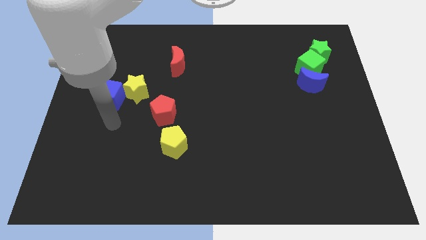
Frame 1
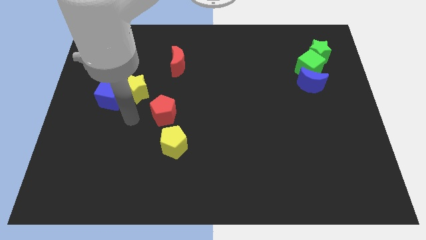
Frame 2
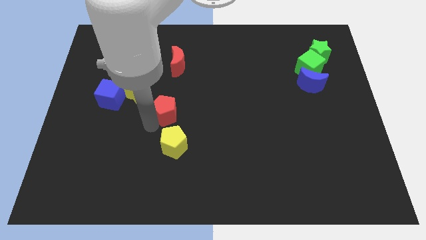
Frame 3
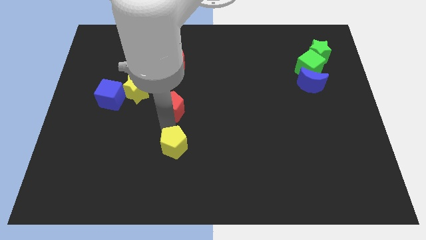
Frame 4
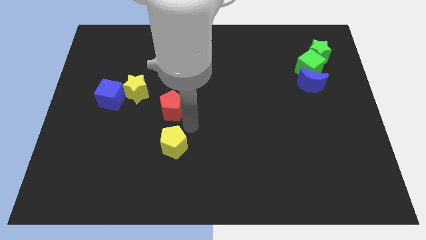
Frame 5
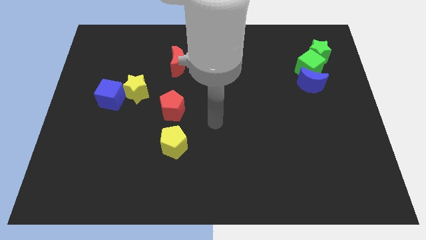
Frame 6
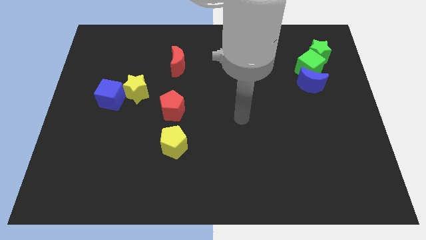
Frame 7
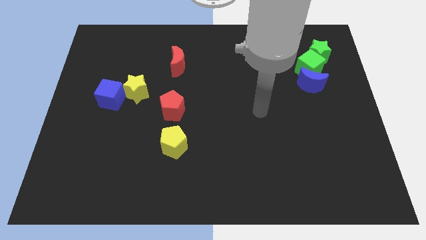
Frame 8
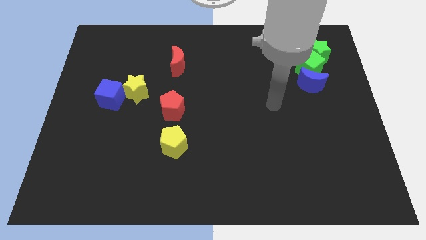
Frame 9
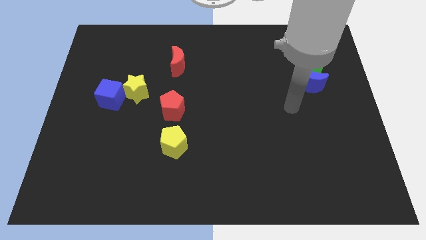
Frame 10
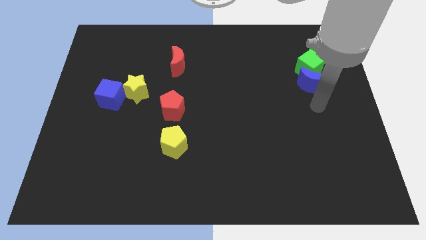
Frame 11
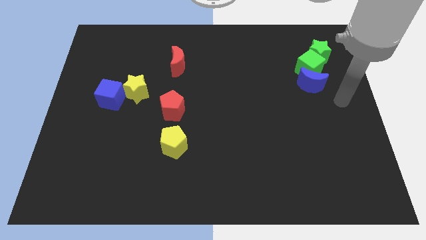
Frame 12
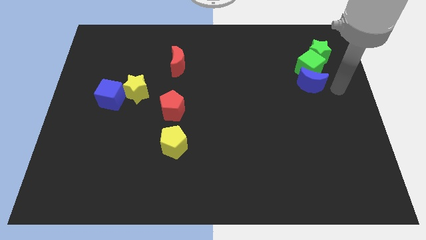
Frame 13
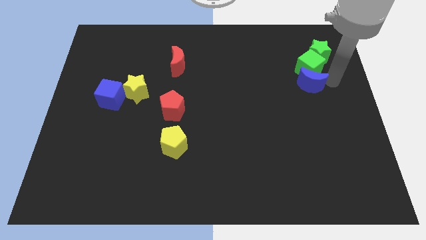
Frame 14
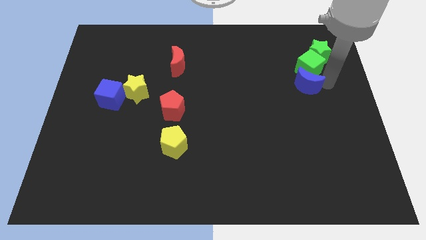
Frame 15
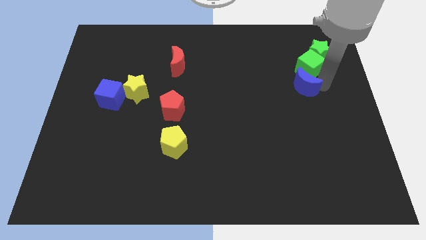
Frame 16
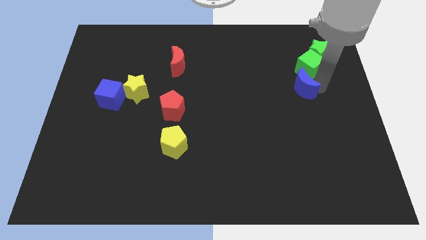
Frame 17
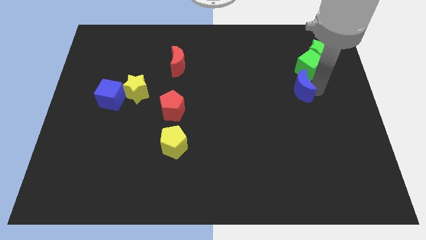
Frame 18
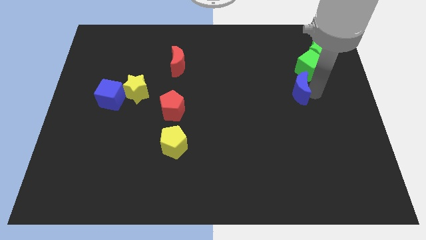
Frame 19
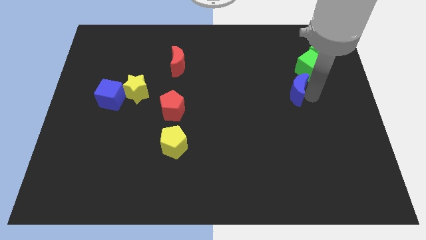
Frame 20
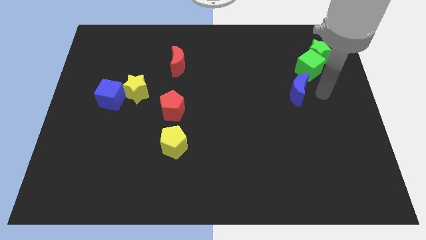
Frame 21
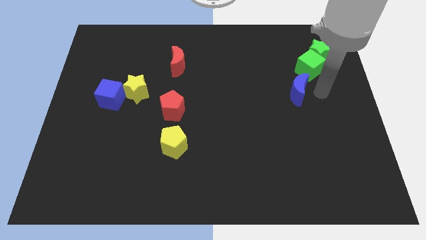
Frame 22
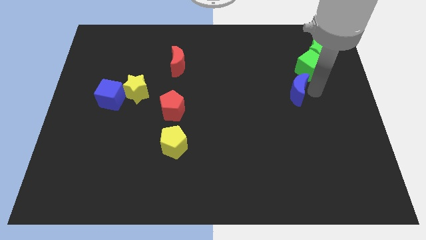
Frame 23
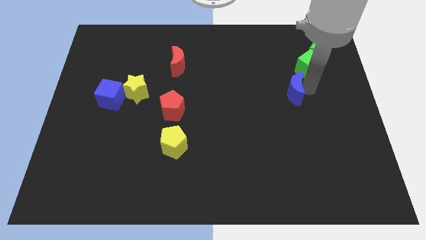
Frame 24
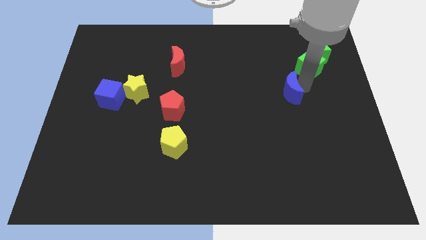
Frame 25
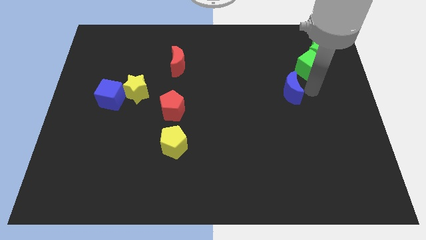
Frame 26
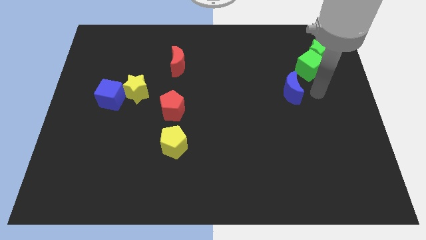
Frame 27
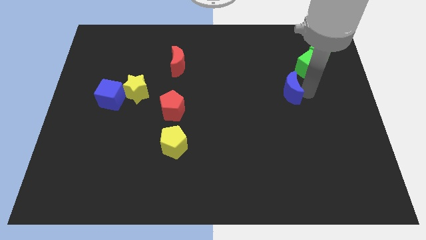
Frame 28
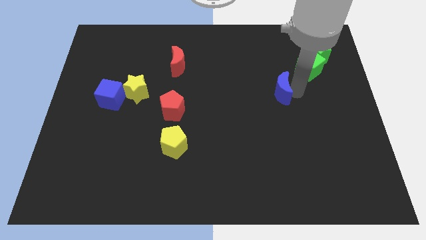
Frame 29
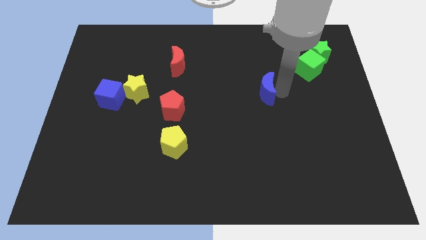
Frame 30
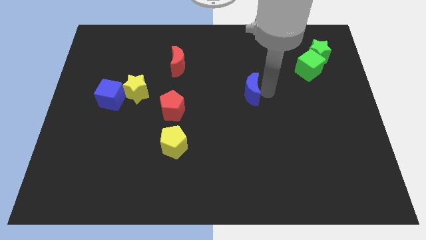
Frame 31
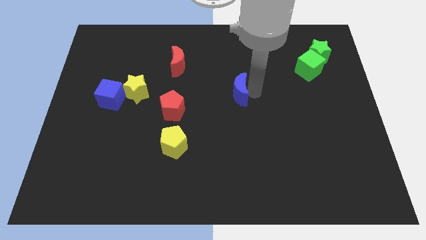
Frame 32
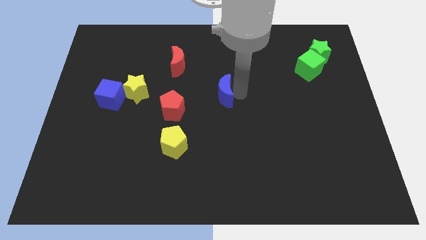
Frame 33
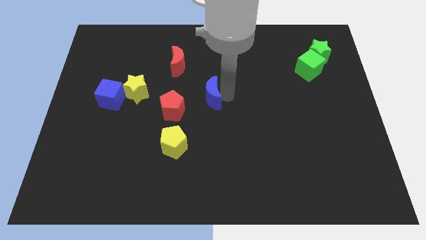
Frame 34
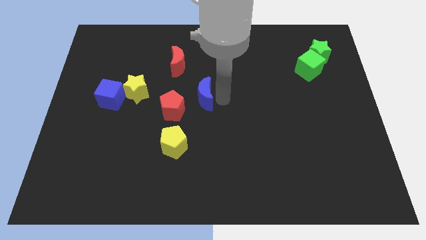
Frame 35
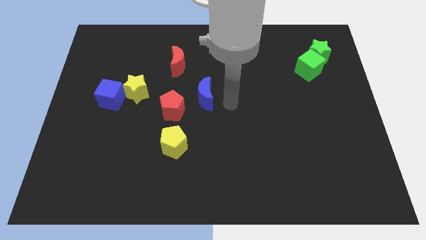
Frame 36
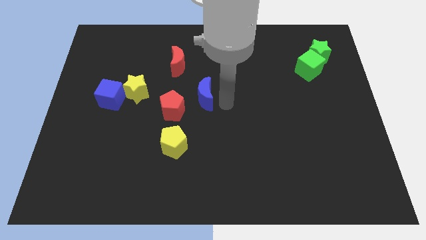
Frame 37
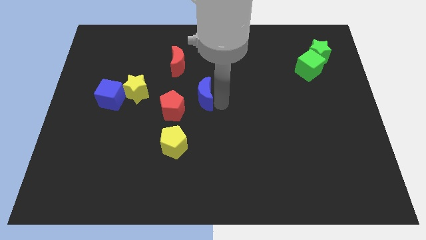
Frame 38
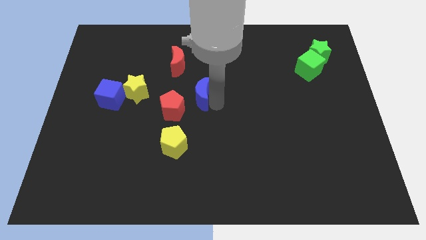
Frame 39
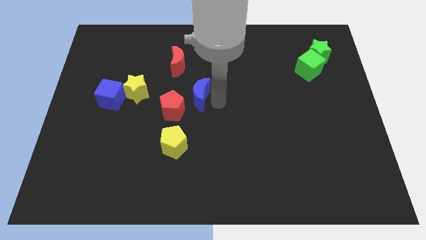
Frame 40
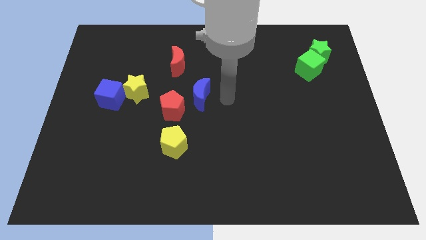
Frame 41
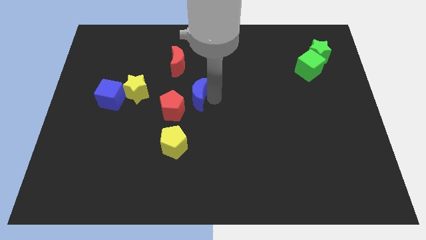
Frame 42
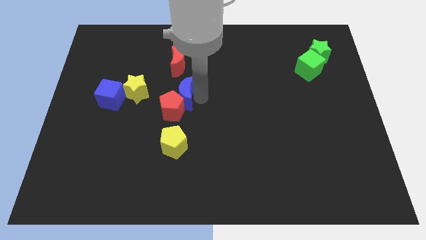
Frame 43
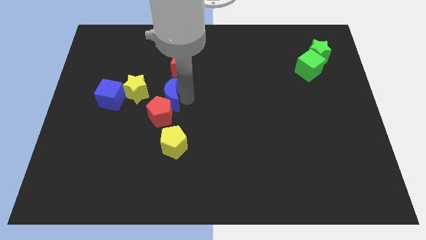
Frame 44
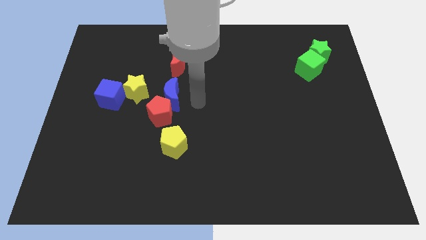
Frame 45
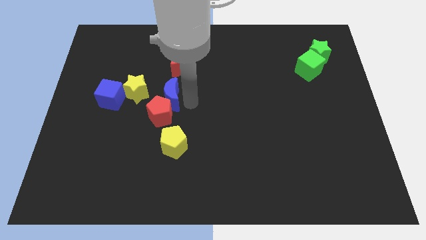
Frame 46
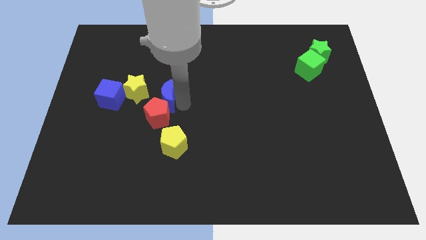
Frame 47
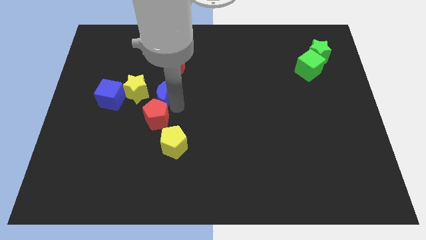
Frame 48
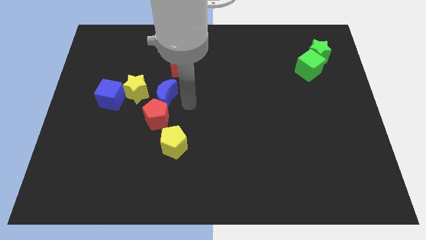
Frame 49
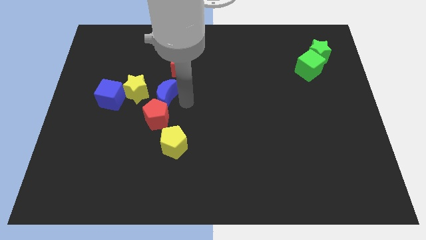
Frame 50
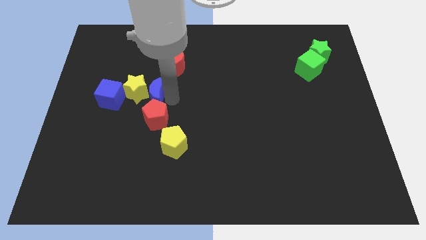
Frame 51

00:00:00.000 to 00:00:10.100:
put the blue moon to the yellow star

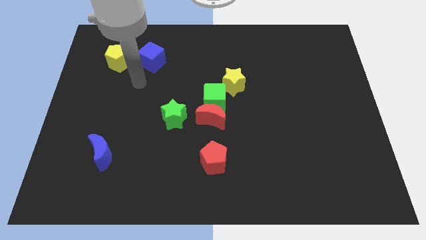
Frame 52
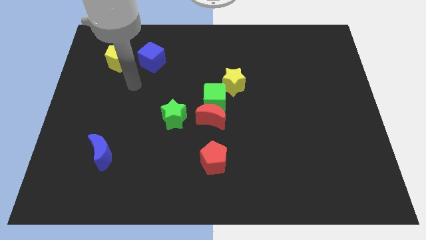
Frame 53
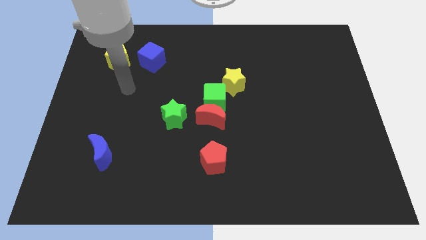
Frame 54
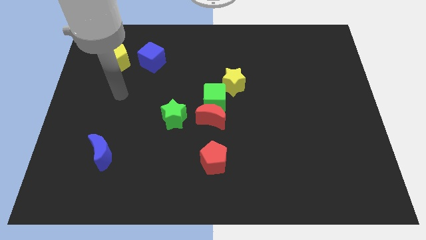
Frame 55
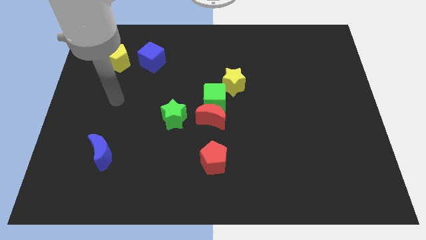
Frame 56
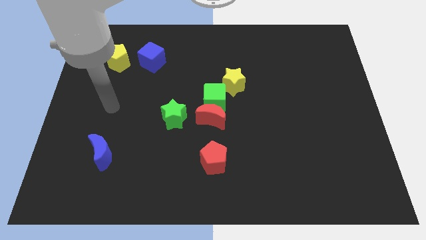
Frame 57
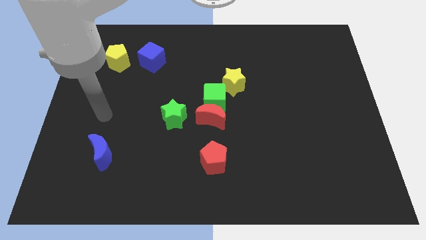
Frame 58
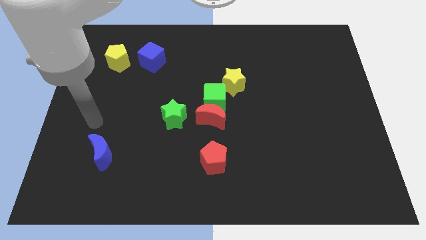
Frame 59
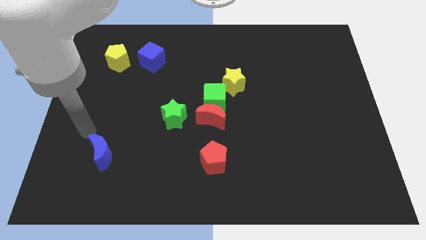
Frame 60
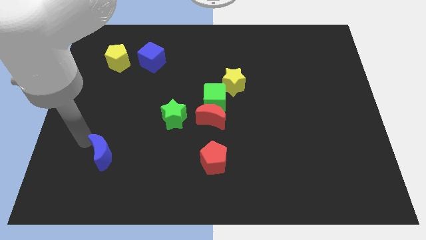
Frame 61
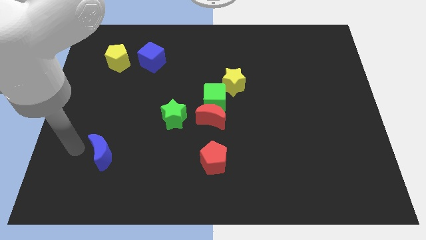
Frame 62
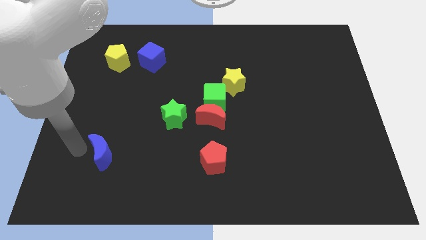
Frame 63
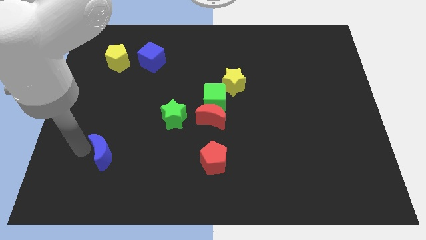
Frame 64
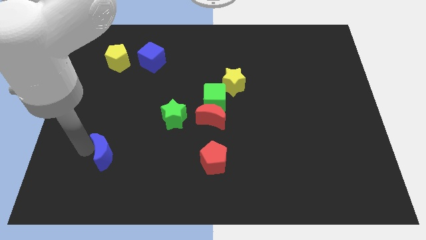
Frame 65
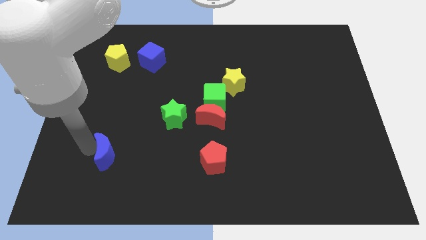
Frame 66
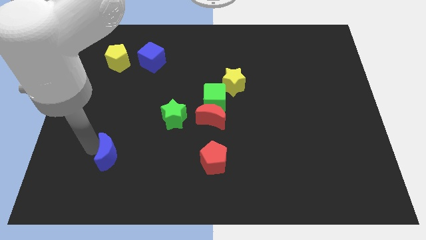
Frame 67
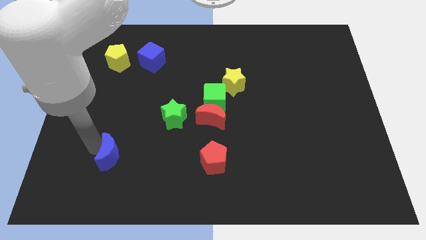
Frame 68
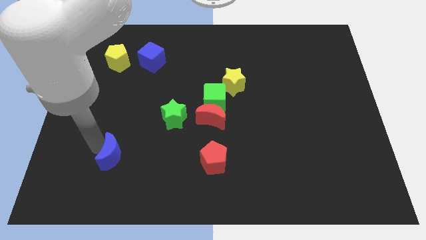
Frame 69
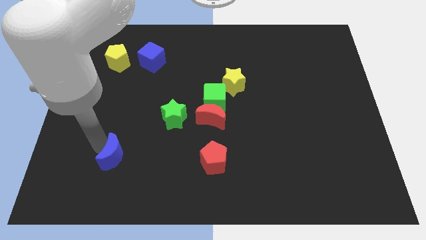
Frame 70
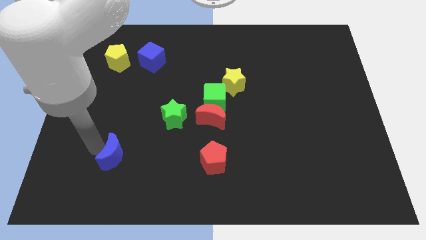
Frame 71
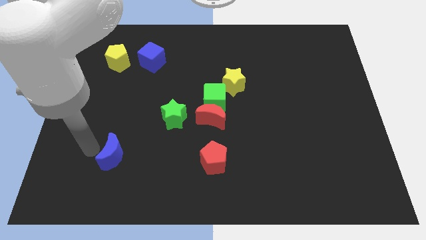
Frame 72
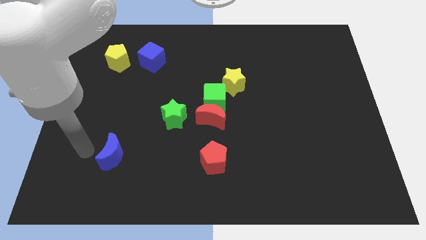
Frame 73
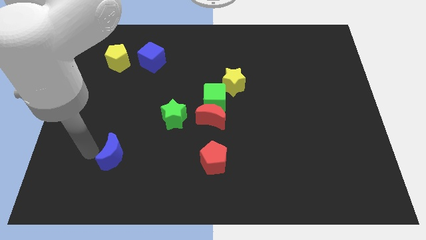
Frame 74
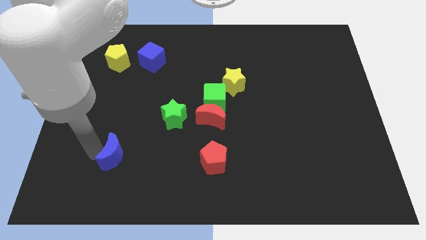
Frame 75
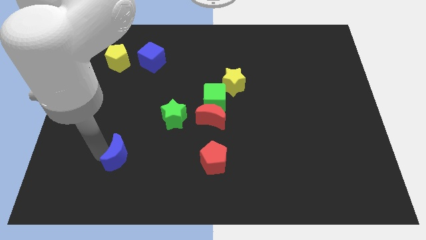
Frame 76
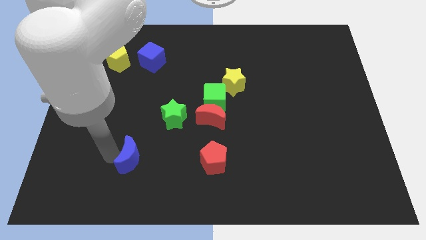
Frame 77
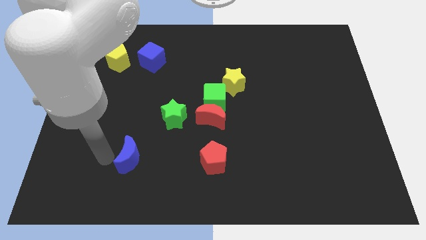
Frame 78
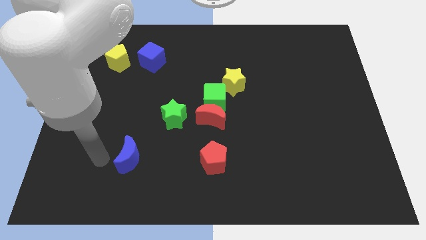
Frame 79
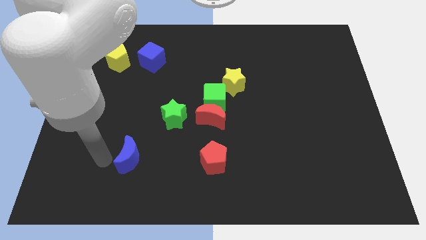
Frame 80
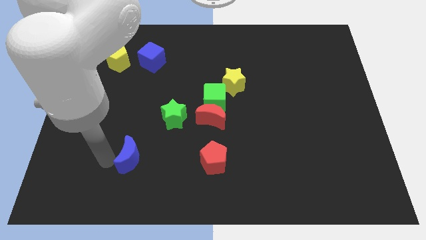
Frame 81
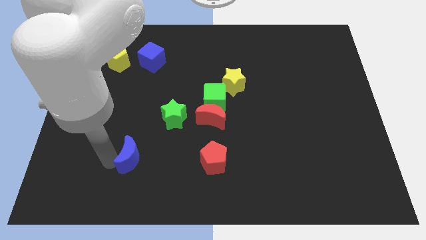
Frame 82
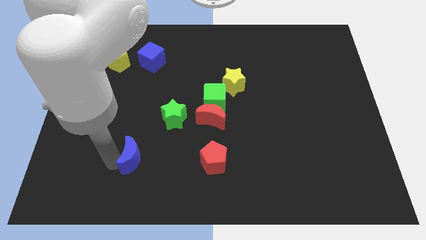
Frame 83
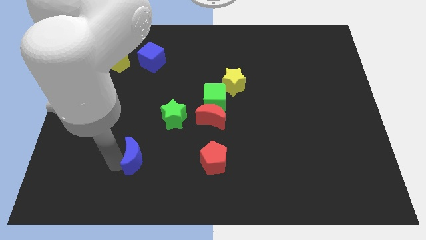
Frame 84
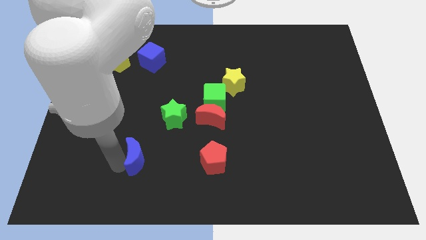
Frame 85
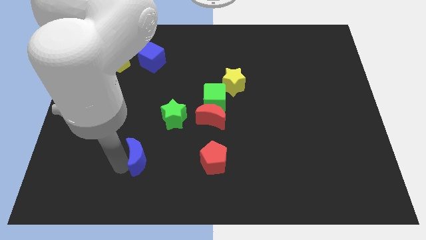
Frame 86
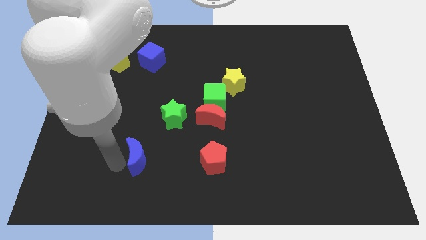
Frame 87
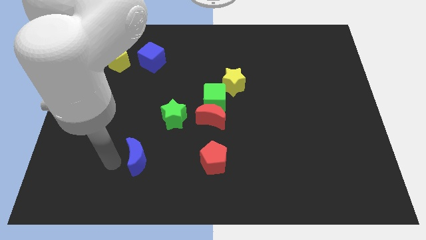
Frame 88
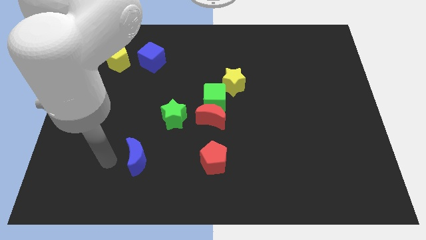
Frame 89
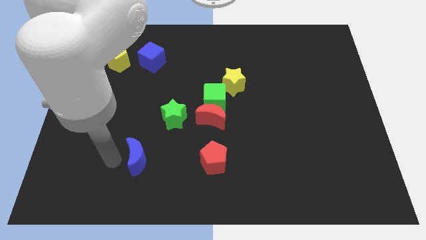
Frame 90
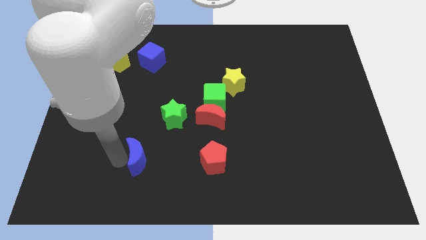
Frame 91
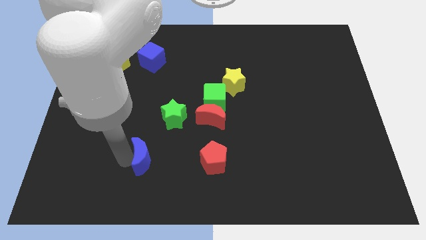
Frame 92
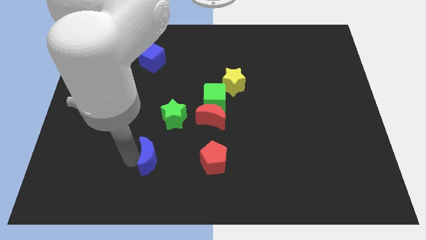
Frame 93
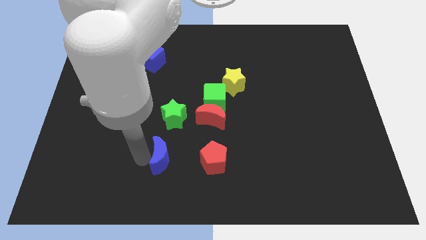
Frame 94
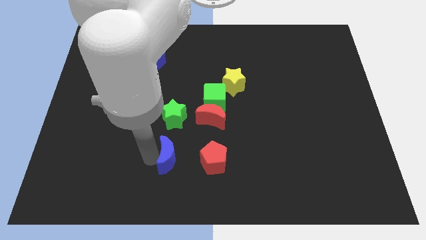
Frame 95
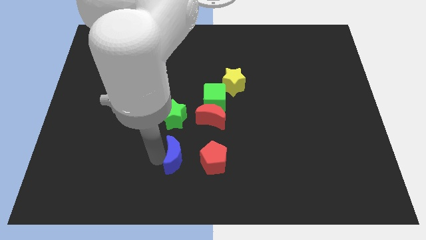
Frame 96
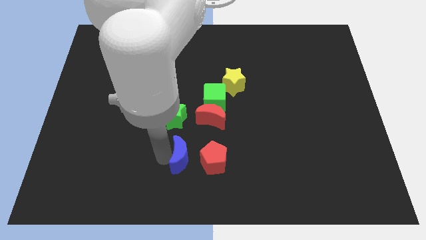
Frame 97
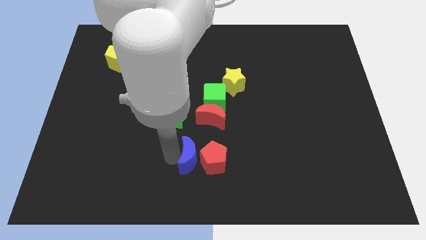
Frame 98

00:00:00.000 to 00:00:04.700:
move the blue moon to the red pentagon
